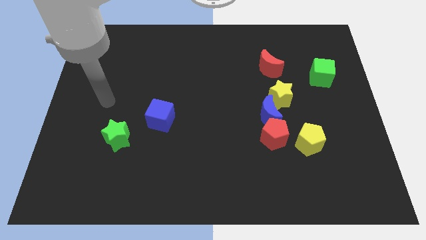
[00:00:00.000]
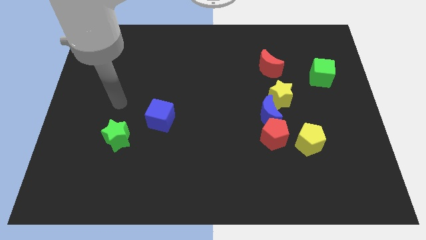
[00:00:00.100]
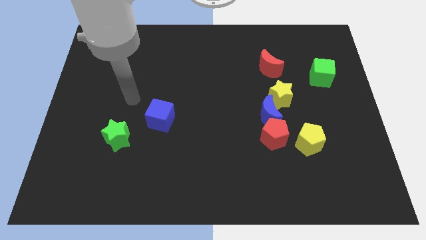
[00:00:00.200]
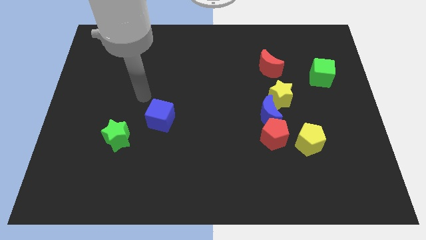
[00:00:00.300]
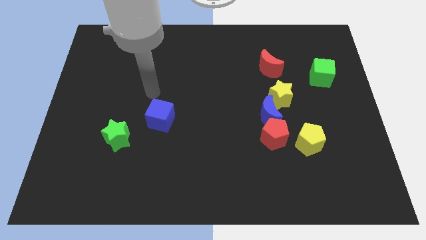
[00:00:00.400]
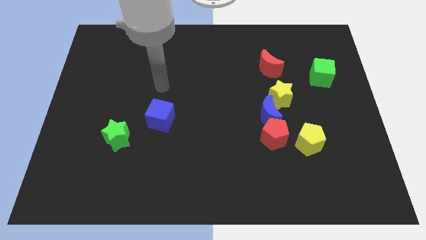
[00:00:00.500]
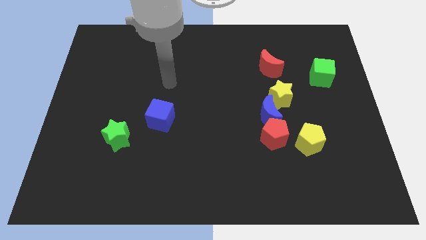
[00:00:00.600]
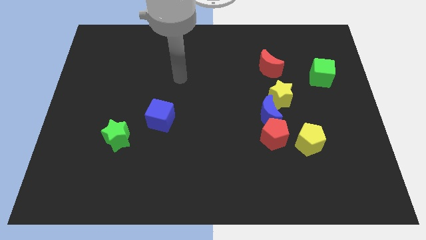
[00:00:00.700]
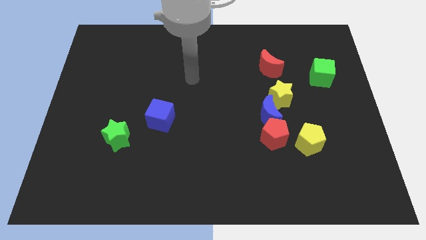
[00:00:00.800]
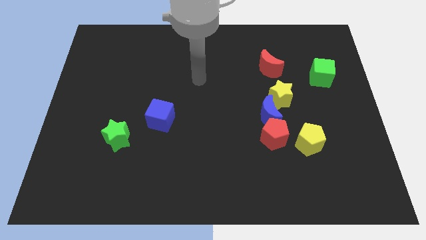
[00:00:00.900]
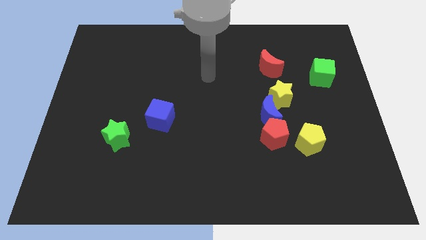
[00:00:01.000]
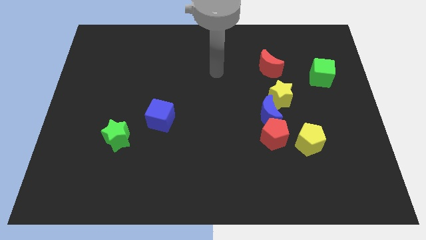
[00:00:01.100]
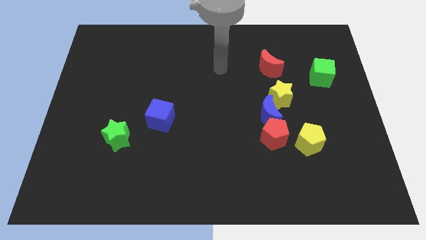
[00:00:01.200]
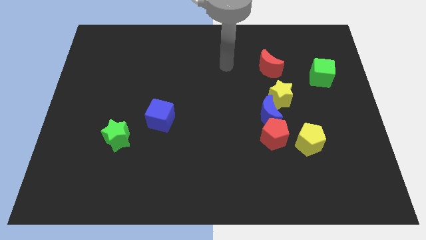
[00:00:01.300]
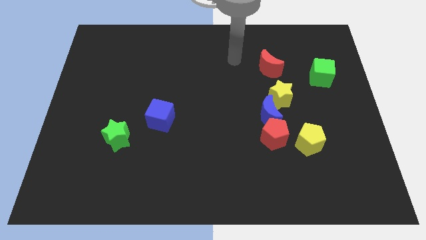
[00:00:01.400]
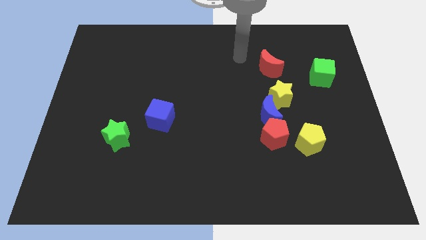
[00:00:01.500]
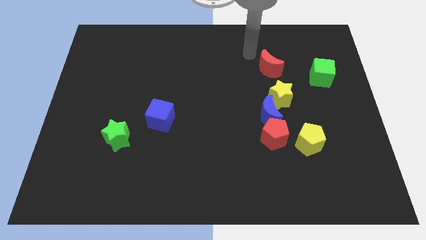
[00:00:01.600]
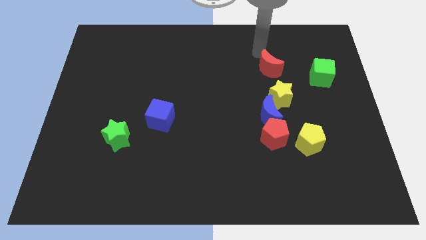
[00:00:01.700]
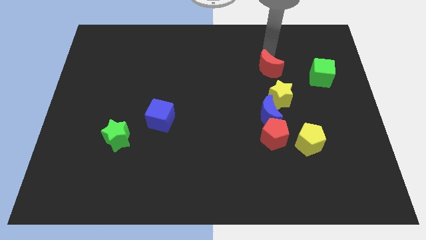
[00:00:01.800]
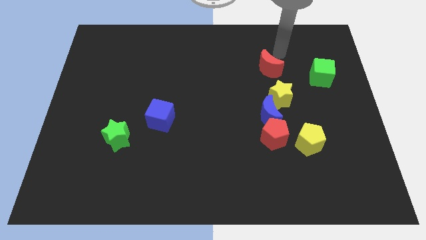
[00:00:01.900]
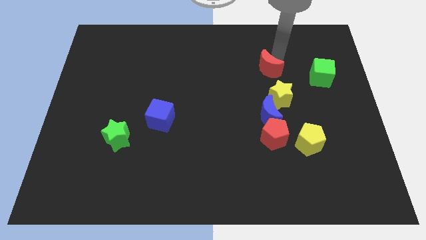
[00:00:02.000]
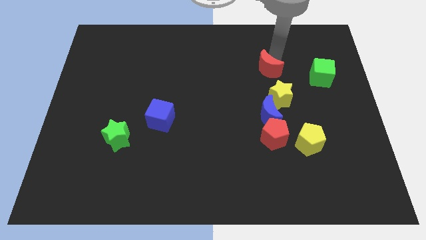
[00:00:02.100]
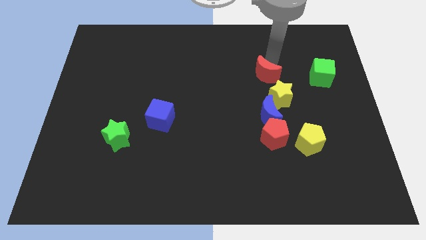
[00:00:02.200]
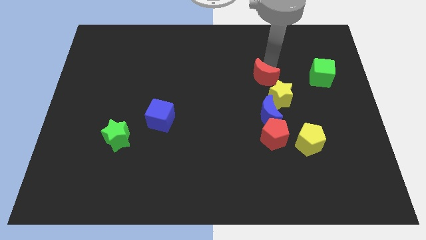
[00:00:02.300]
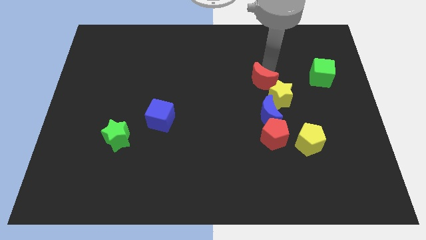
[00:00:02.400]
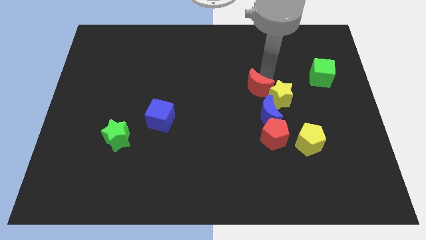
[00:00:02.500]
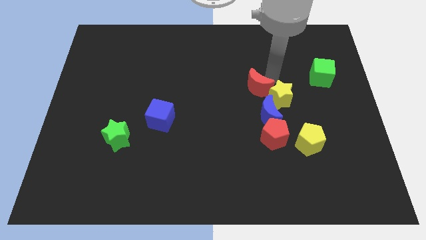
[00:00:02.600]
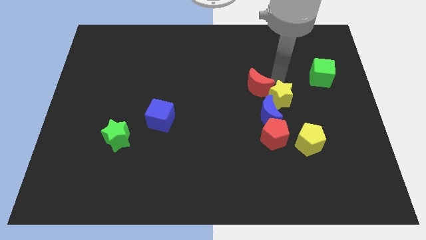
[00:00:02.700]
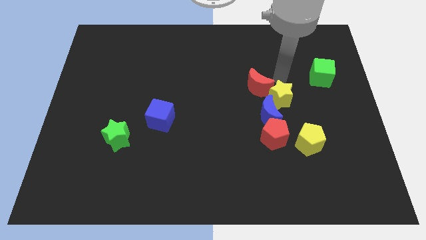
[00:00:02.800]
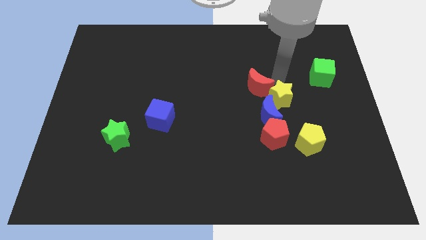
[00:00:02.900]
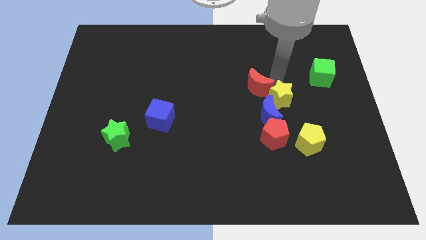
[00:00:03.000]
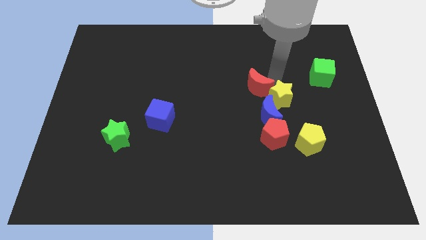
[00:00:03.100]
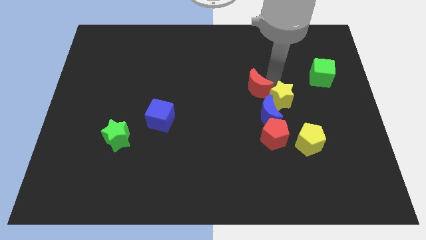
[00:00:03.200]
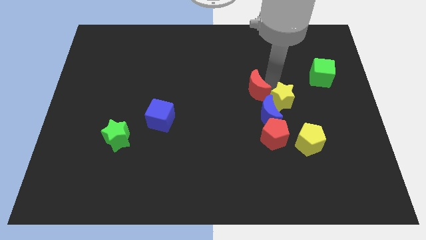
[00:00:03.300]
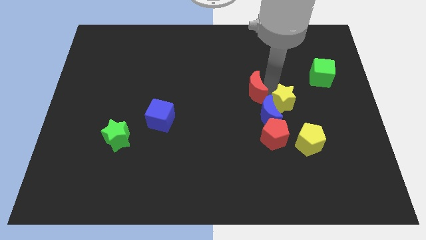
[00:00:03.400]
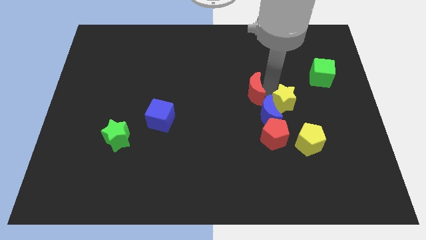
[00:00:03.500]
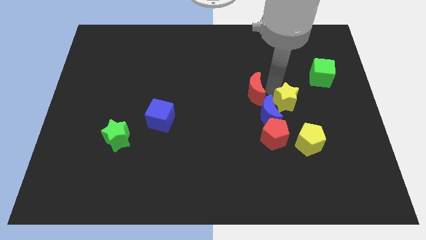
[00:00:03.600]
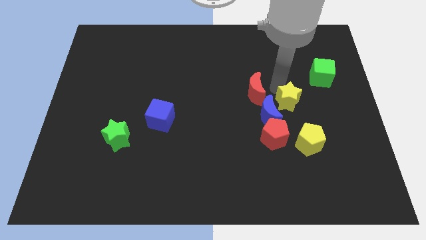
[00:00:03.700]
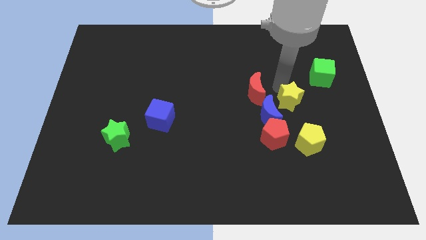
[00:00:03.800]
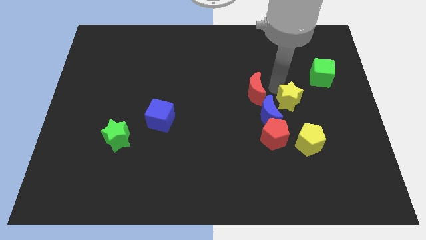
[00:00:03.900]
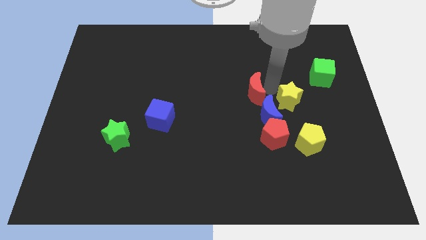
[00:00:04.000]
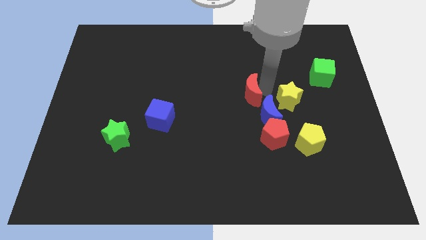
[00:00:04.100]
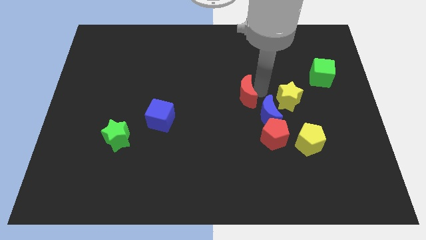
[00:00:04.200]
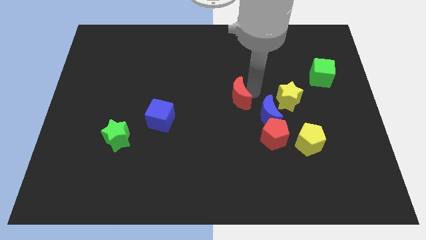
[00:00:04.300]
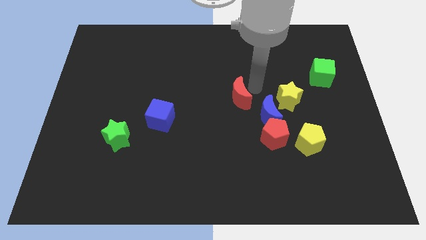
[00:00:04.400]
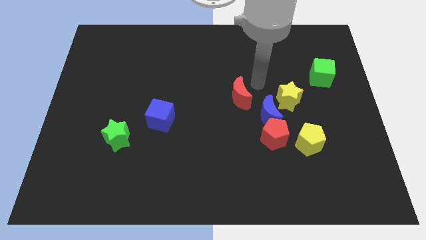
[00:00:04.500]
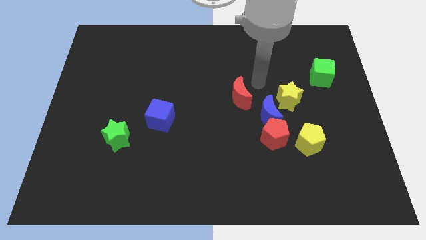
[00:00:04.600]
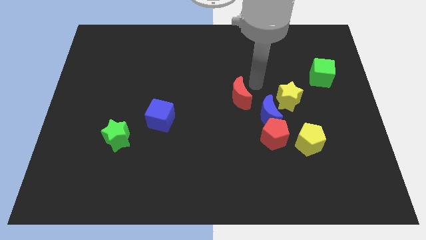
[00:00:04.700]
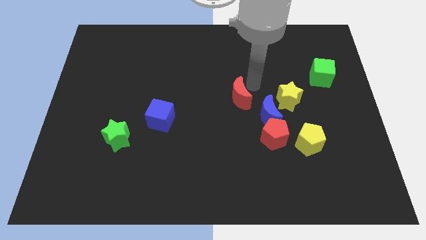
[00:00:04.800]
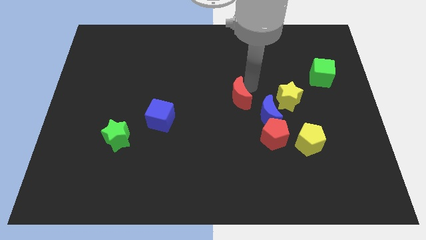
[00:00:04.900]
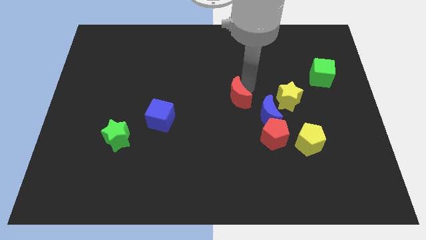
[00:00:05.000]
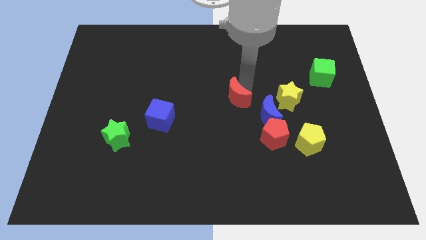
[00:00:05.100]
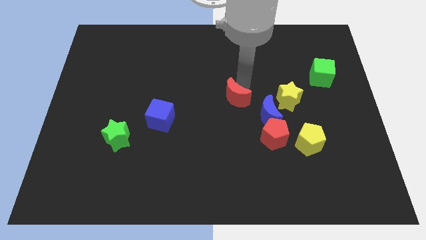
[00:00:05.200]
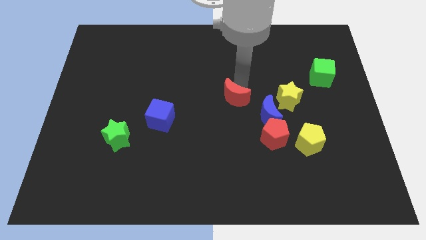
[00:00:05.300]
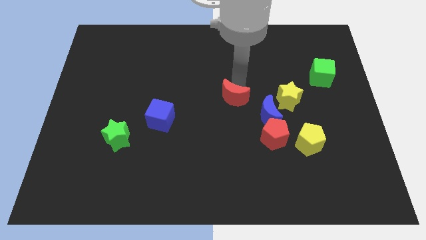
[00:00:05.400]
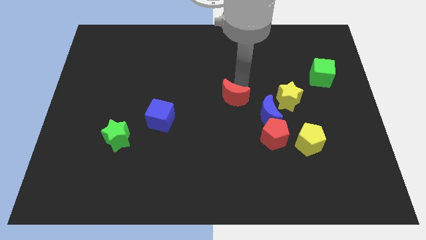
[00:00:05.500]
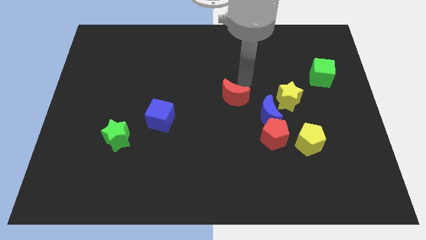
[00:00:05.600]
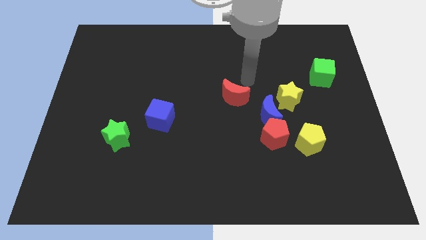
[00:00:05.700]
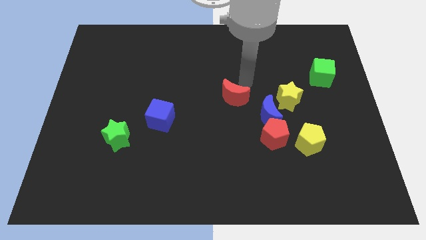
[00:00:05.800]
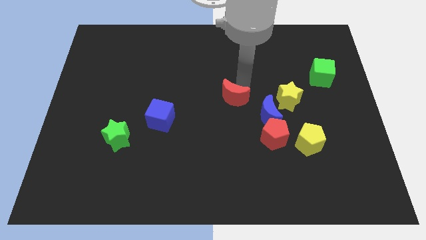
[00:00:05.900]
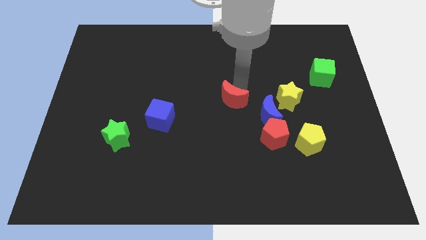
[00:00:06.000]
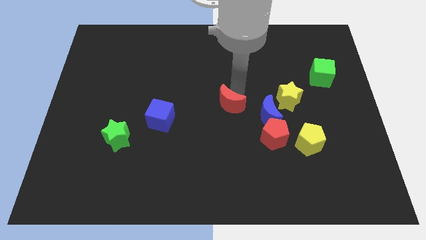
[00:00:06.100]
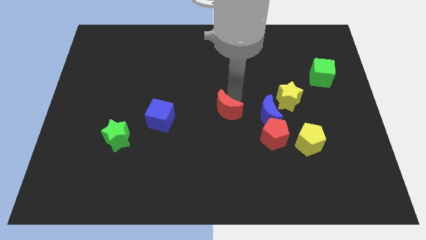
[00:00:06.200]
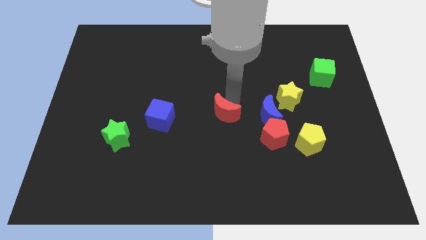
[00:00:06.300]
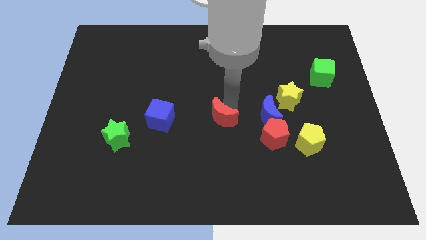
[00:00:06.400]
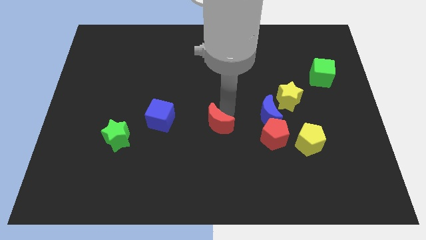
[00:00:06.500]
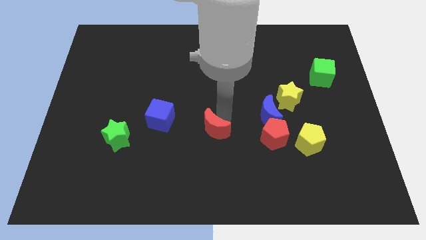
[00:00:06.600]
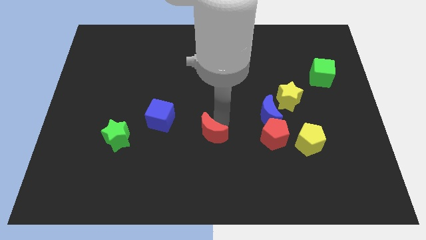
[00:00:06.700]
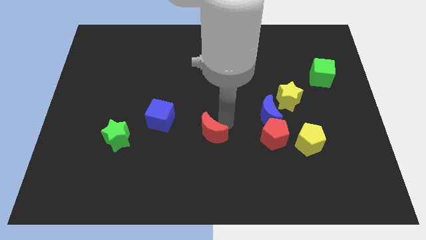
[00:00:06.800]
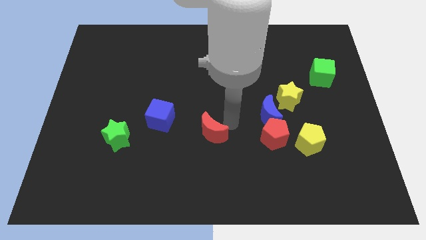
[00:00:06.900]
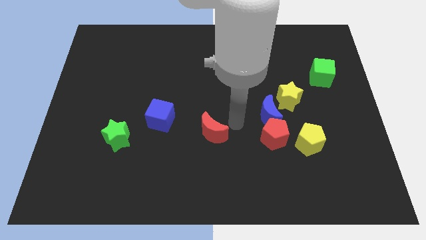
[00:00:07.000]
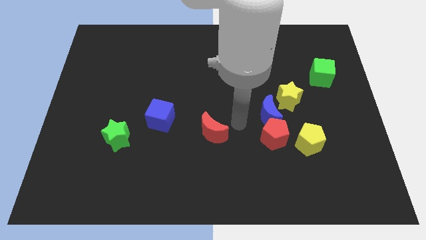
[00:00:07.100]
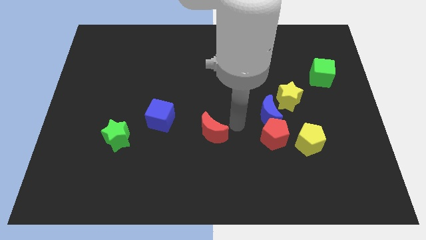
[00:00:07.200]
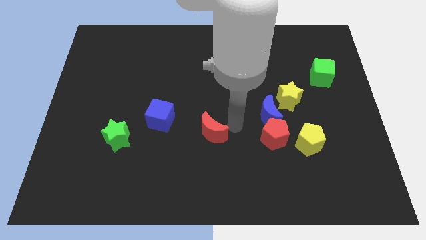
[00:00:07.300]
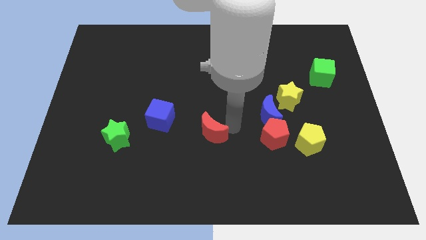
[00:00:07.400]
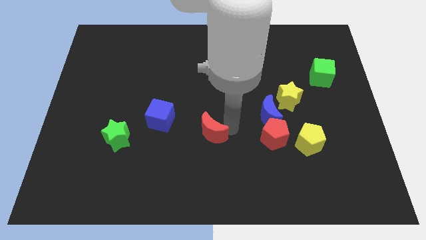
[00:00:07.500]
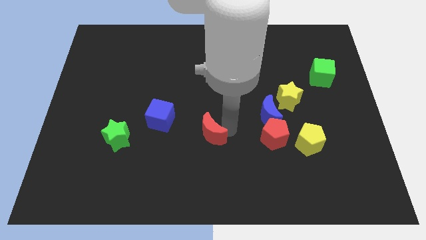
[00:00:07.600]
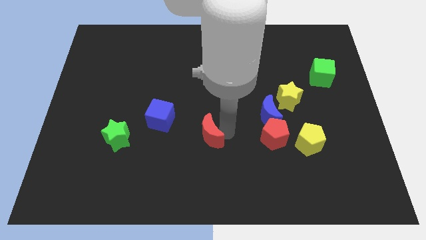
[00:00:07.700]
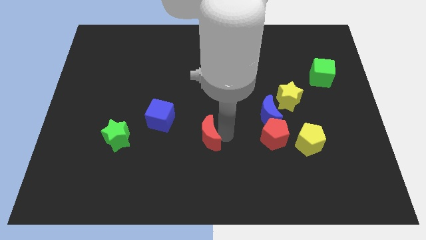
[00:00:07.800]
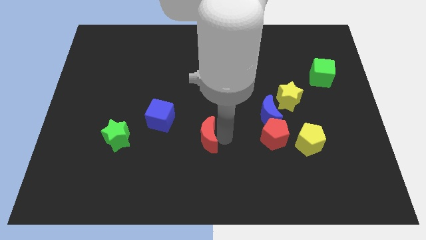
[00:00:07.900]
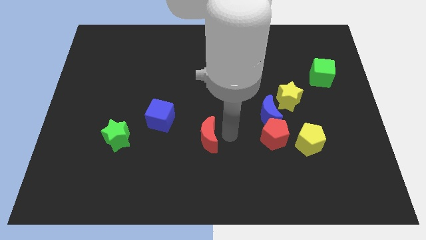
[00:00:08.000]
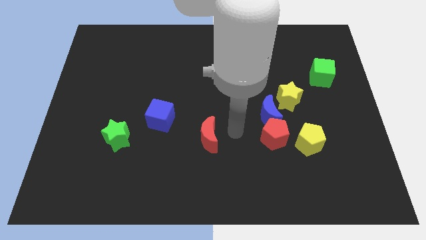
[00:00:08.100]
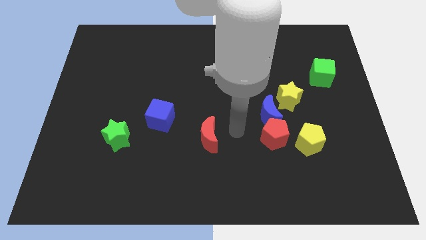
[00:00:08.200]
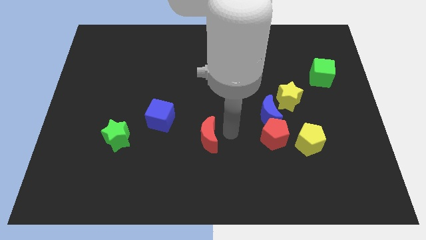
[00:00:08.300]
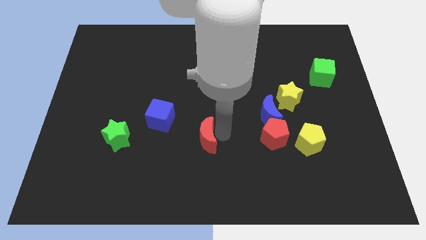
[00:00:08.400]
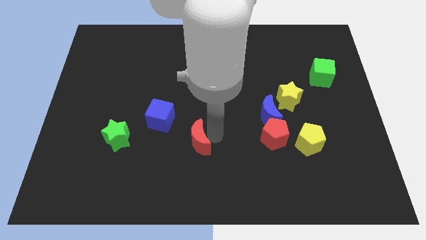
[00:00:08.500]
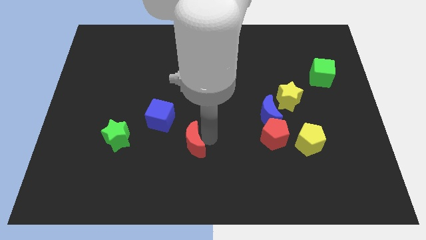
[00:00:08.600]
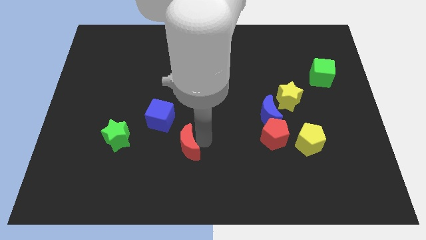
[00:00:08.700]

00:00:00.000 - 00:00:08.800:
move the red moon just right of the green star
